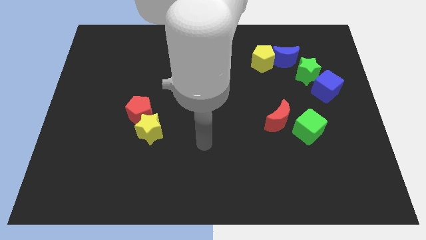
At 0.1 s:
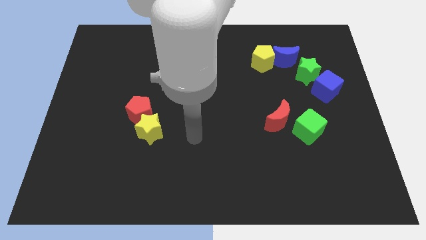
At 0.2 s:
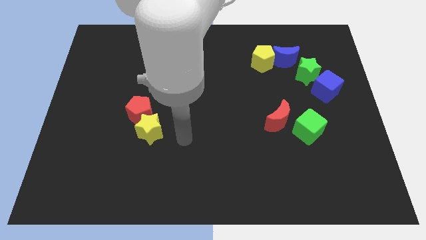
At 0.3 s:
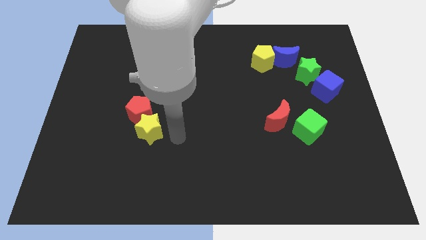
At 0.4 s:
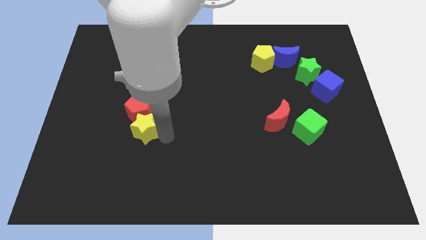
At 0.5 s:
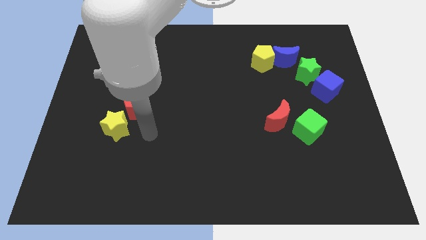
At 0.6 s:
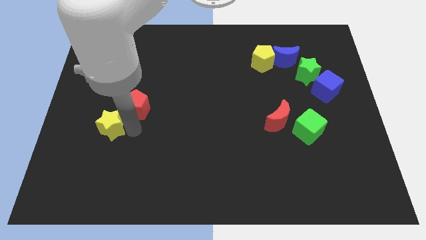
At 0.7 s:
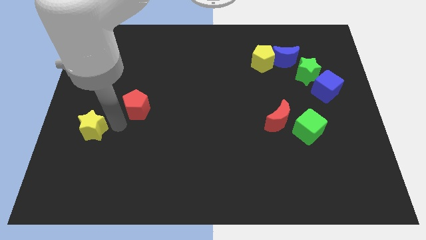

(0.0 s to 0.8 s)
separate the red pentagon from the yellow star

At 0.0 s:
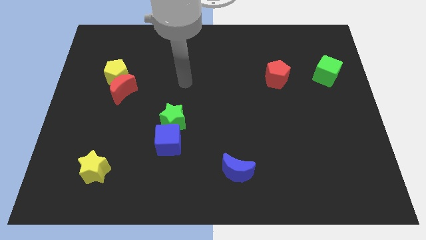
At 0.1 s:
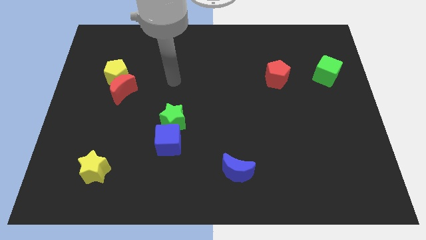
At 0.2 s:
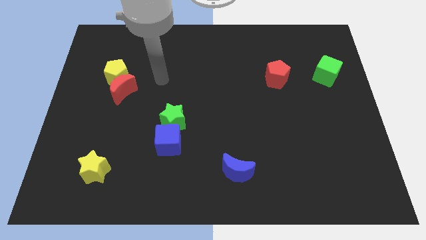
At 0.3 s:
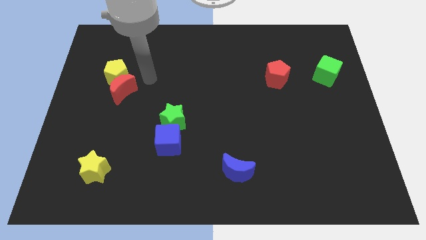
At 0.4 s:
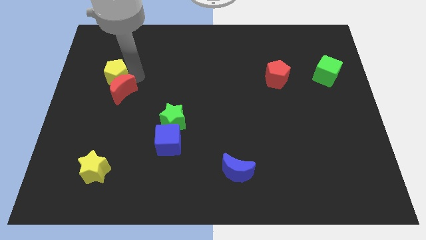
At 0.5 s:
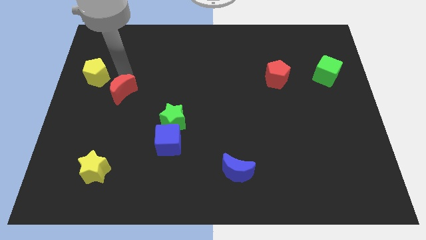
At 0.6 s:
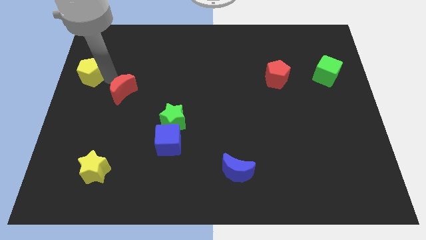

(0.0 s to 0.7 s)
move the red moon away from the yellow pentagon

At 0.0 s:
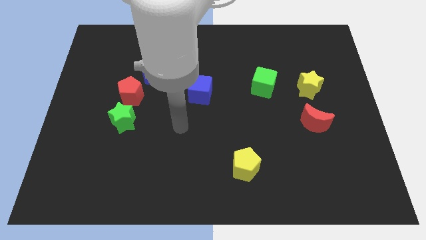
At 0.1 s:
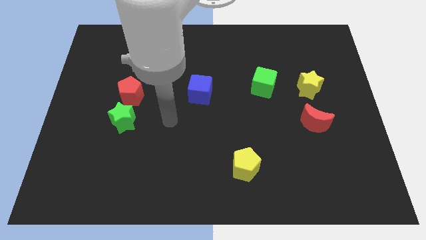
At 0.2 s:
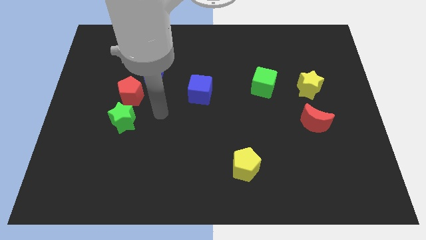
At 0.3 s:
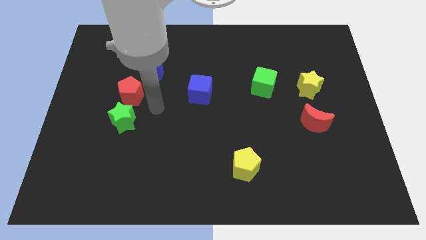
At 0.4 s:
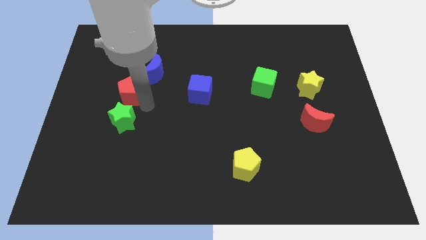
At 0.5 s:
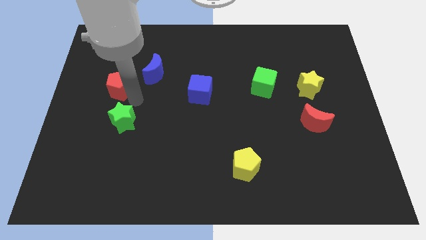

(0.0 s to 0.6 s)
separate the green star from the red pentagon

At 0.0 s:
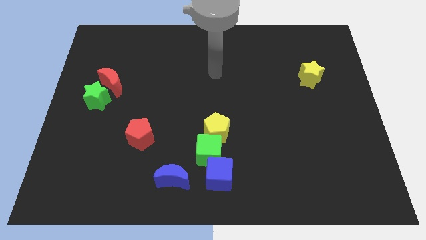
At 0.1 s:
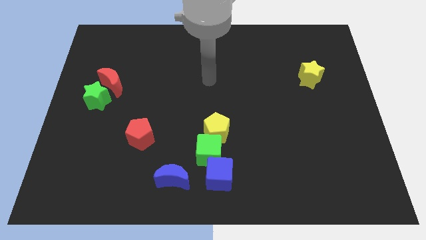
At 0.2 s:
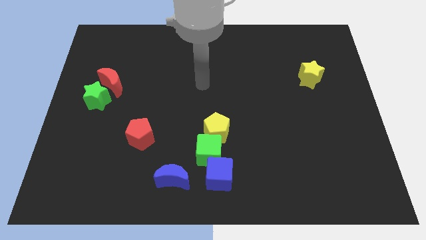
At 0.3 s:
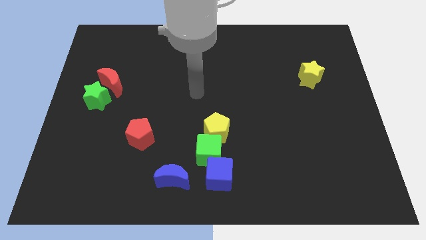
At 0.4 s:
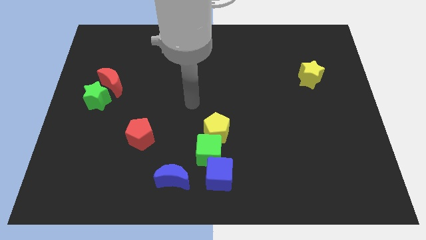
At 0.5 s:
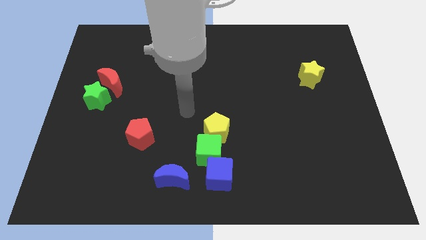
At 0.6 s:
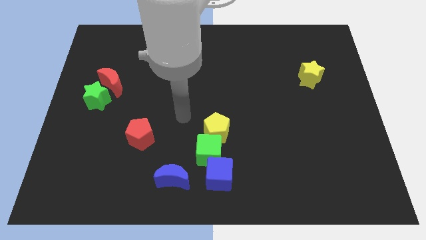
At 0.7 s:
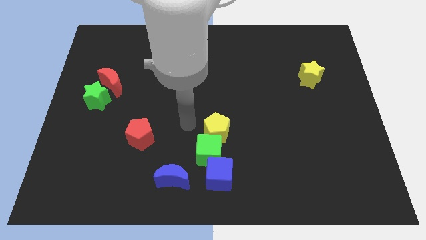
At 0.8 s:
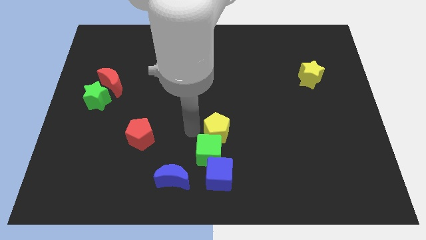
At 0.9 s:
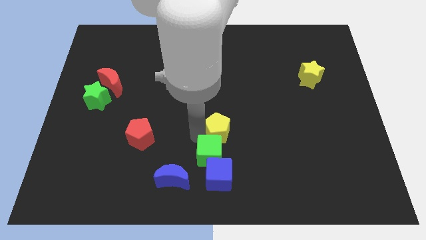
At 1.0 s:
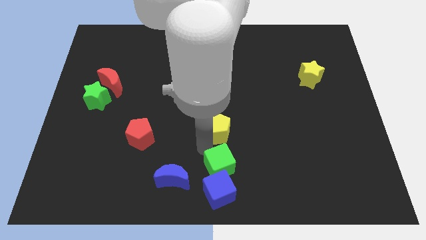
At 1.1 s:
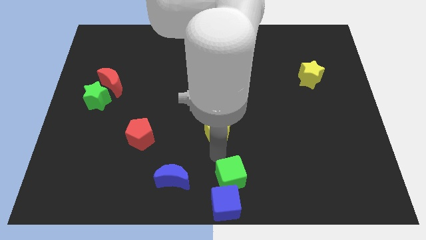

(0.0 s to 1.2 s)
move the yellow pentagon away from the green cube

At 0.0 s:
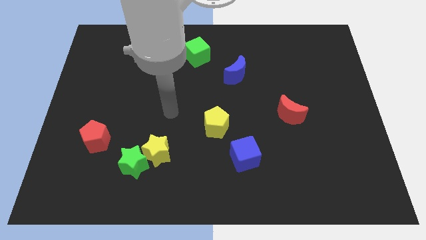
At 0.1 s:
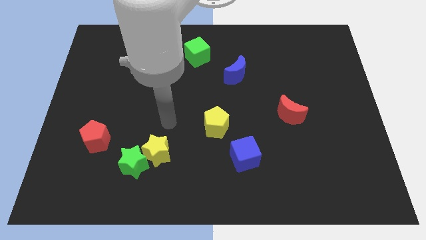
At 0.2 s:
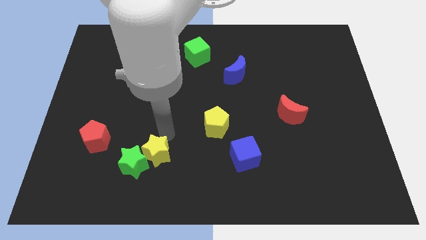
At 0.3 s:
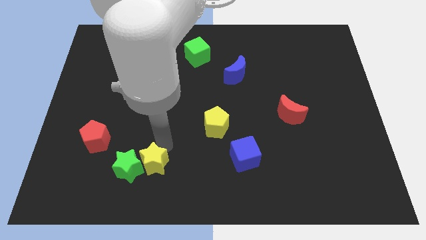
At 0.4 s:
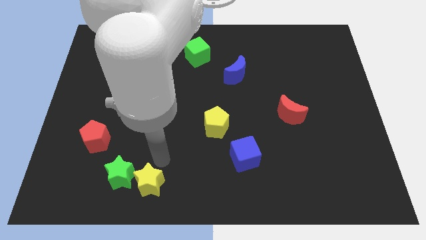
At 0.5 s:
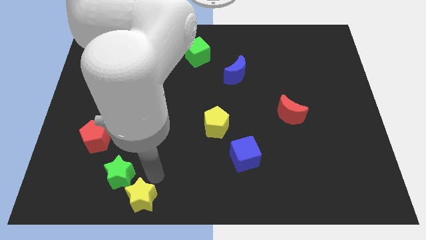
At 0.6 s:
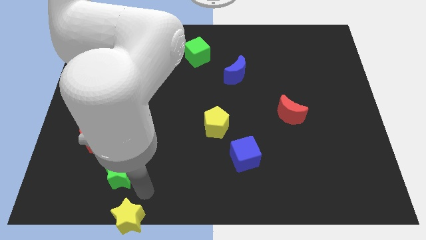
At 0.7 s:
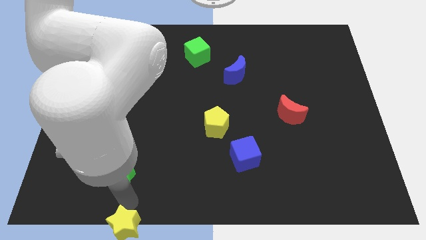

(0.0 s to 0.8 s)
pull the green star apart from the yellow star

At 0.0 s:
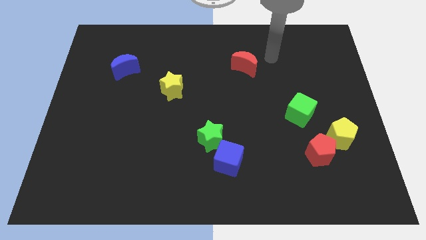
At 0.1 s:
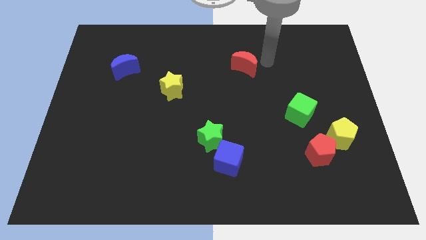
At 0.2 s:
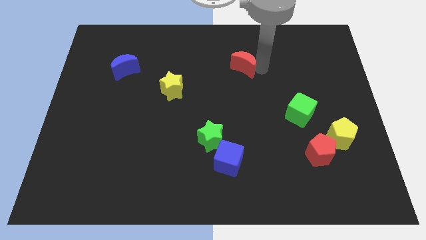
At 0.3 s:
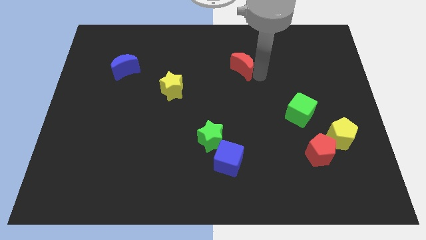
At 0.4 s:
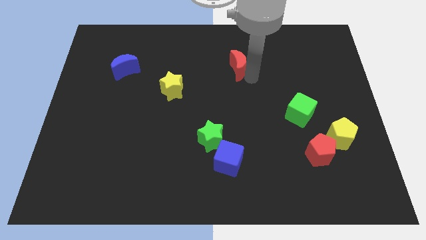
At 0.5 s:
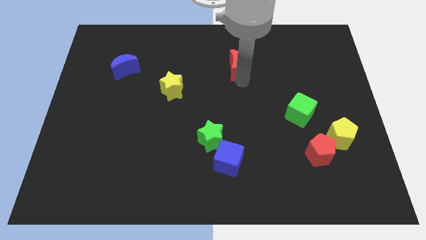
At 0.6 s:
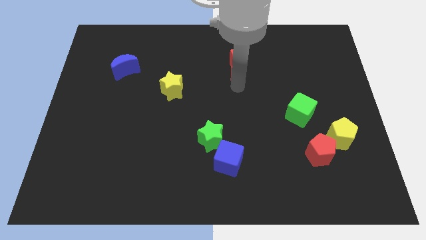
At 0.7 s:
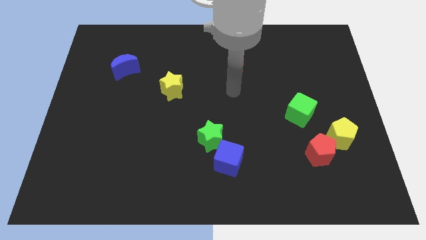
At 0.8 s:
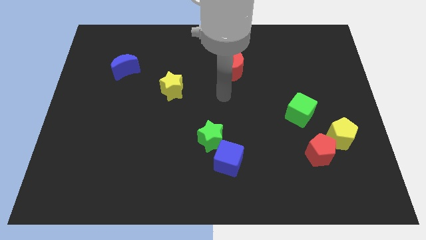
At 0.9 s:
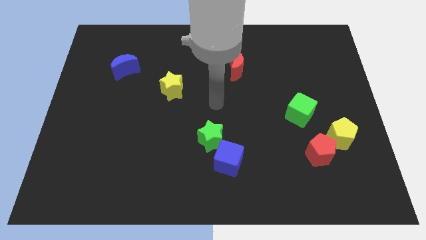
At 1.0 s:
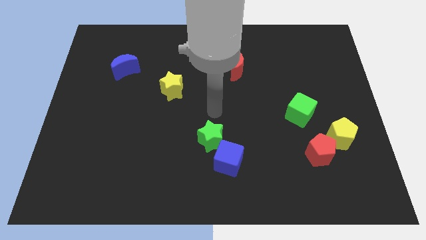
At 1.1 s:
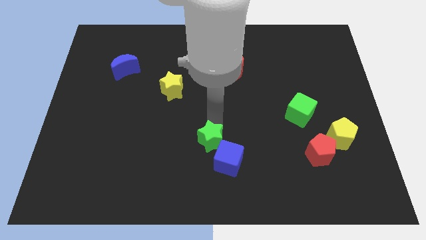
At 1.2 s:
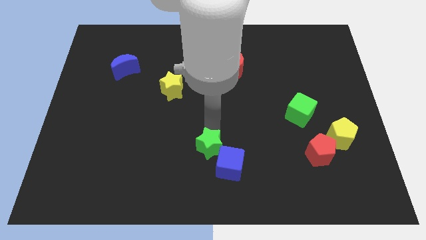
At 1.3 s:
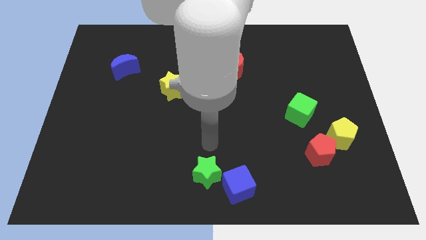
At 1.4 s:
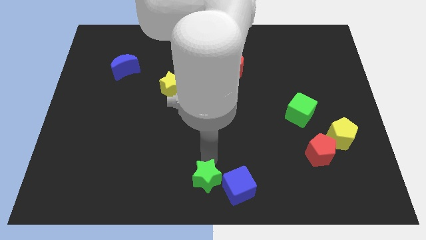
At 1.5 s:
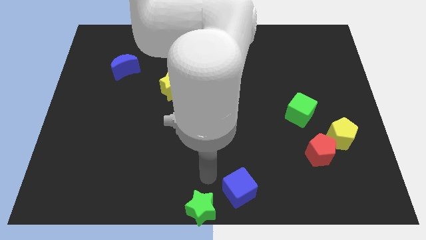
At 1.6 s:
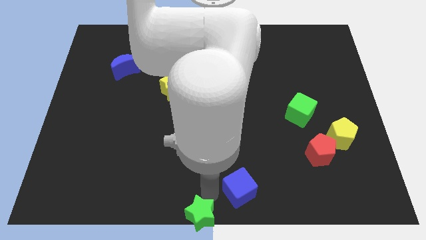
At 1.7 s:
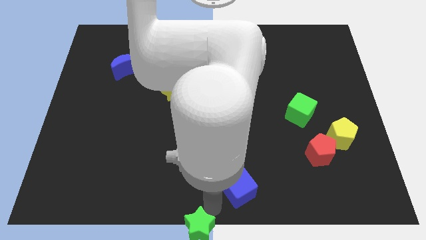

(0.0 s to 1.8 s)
separate the blue cube from the green star

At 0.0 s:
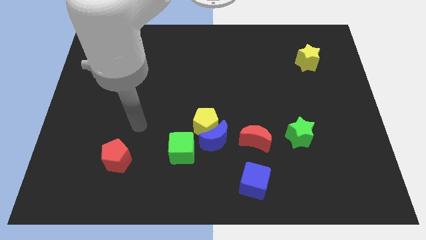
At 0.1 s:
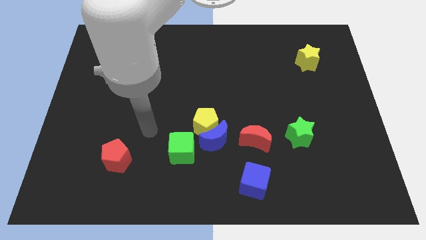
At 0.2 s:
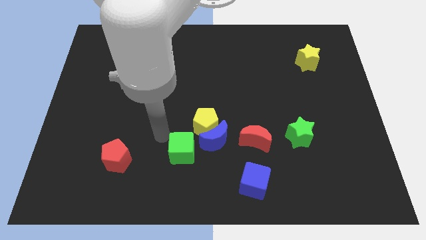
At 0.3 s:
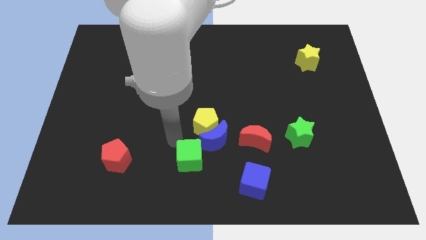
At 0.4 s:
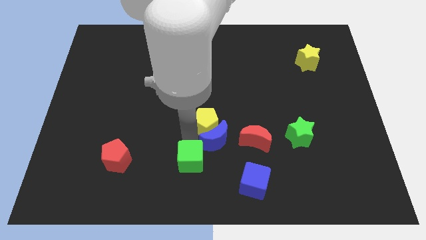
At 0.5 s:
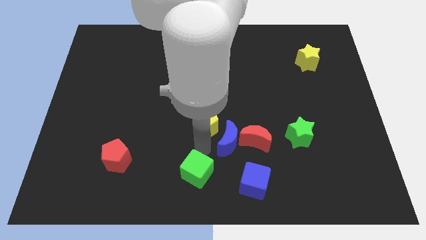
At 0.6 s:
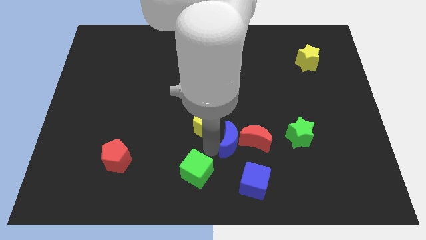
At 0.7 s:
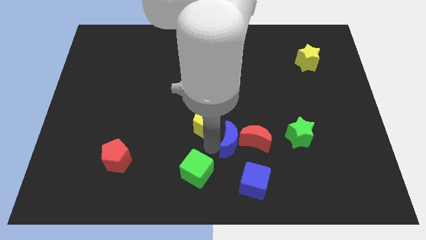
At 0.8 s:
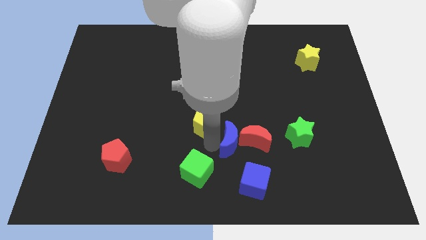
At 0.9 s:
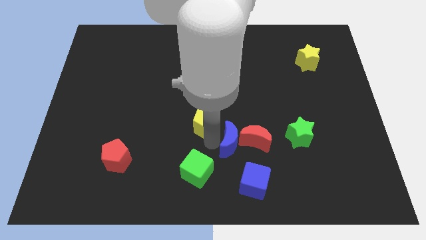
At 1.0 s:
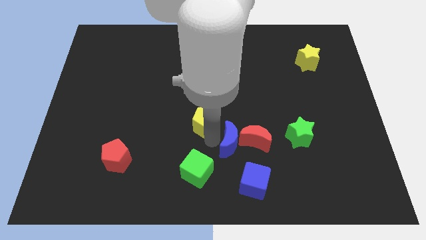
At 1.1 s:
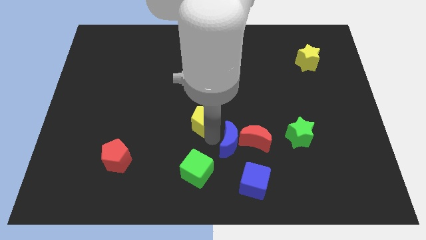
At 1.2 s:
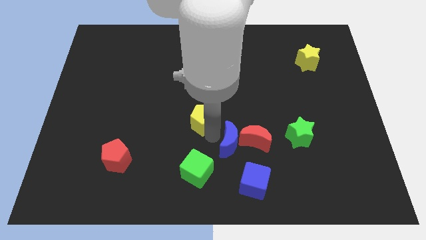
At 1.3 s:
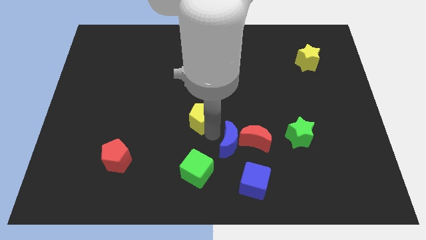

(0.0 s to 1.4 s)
pull the yellow pentagon apart from the blue moon and green cube

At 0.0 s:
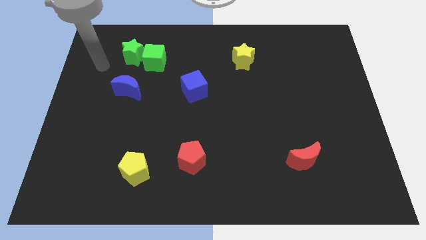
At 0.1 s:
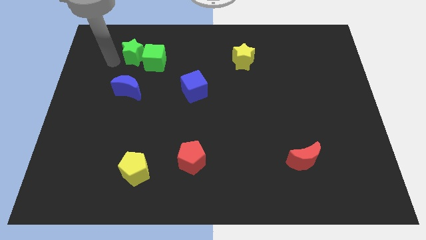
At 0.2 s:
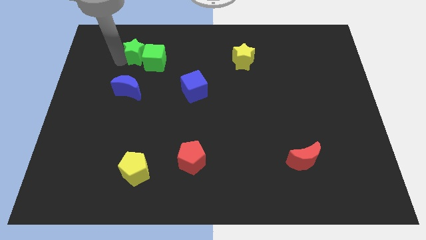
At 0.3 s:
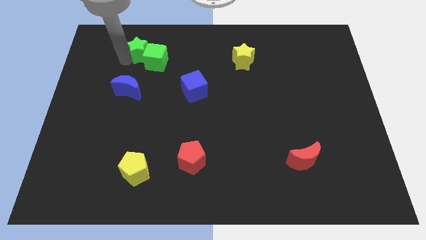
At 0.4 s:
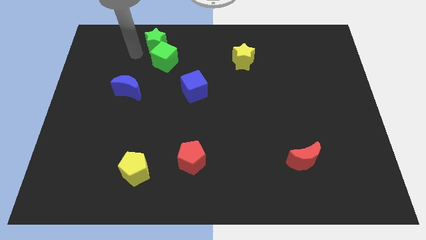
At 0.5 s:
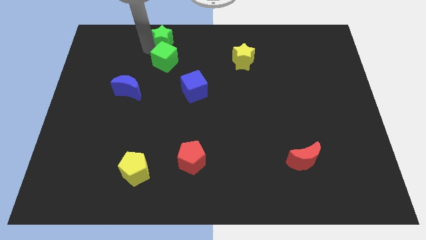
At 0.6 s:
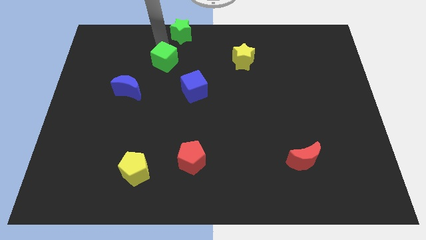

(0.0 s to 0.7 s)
pull the green cube apart from the green star

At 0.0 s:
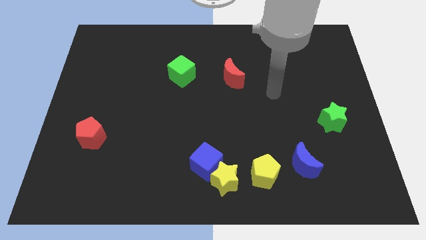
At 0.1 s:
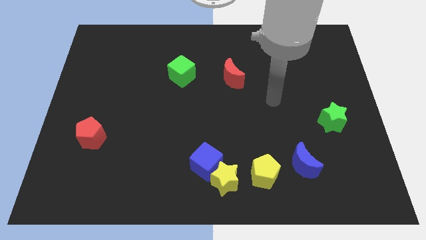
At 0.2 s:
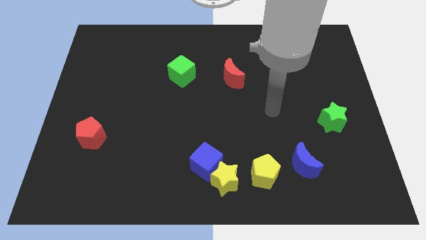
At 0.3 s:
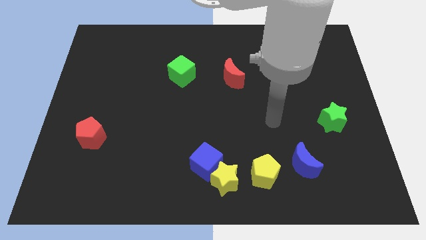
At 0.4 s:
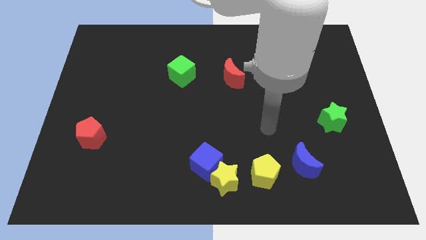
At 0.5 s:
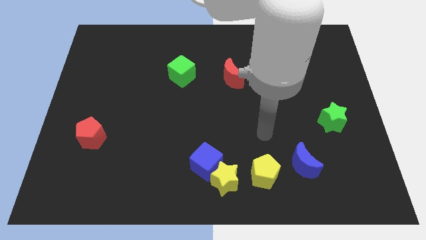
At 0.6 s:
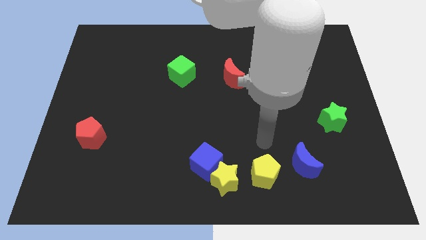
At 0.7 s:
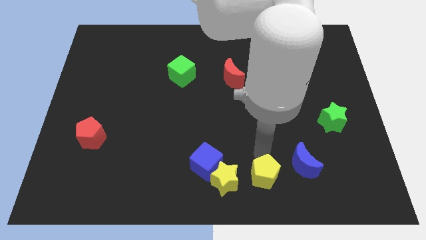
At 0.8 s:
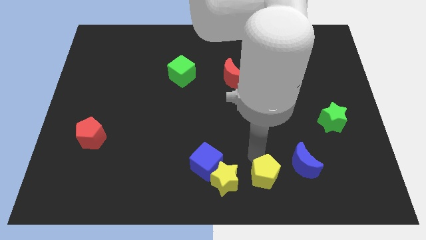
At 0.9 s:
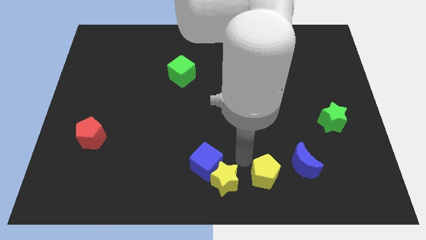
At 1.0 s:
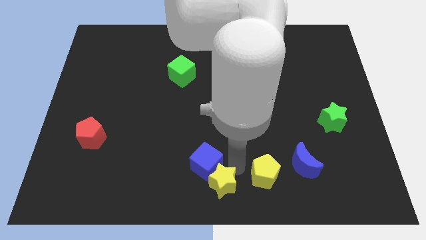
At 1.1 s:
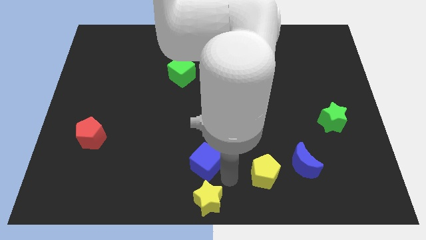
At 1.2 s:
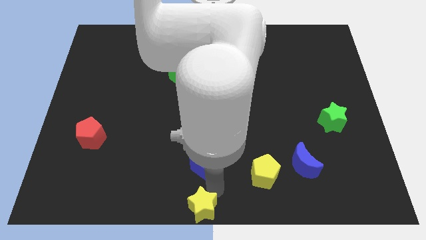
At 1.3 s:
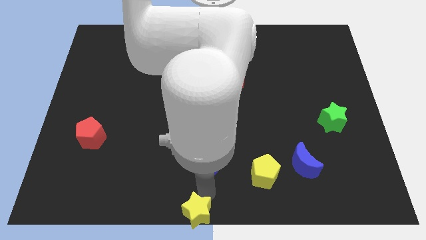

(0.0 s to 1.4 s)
pull the blue cube apart from the yellow star

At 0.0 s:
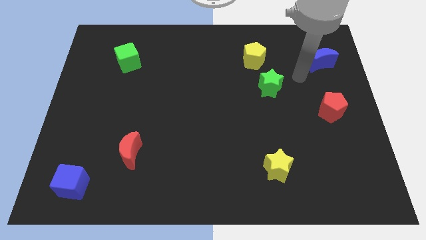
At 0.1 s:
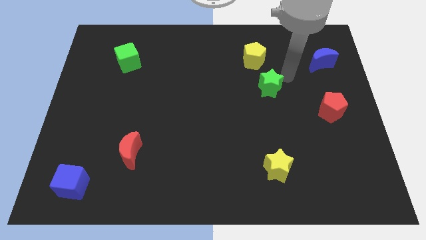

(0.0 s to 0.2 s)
pull the green star apart from the yellow pentagon
